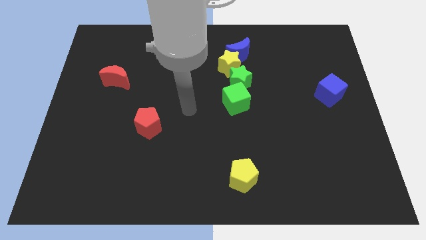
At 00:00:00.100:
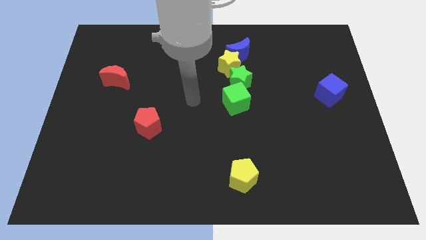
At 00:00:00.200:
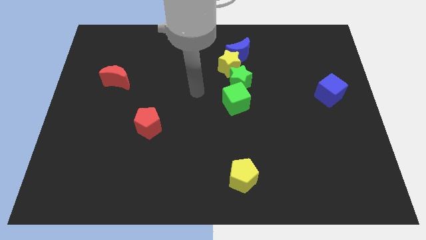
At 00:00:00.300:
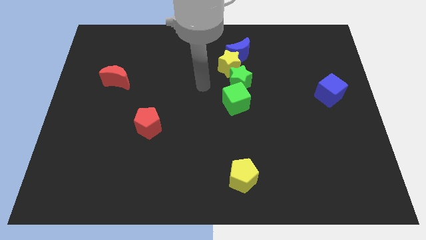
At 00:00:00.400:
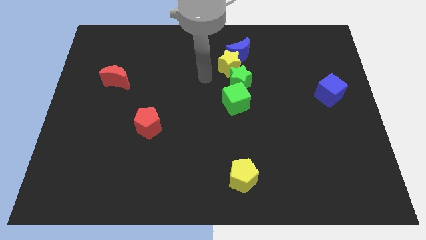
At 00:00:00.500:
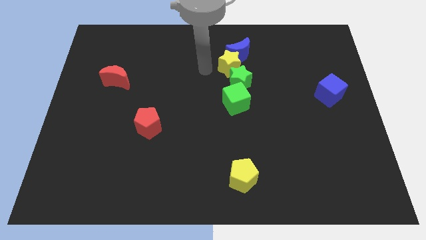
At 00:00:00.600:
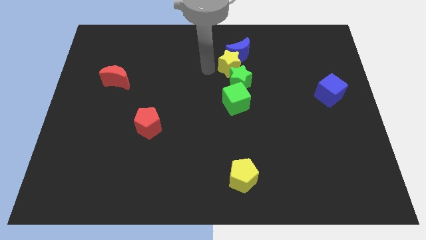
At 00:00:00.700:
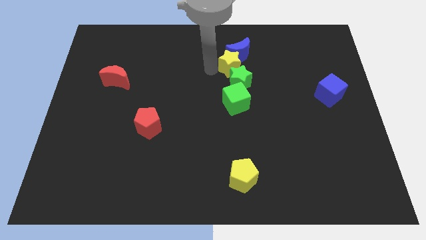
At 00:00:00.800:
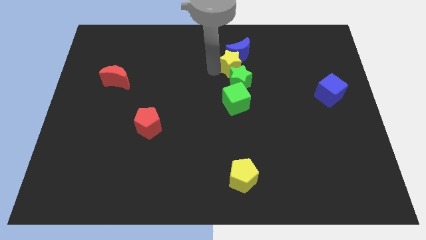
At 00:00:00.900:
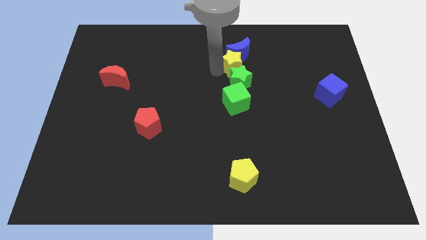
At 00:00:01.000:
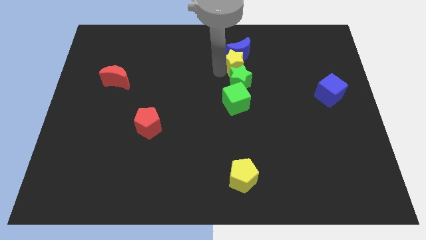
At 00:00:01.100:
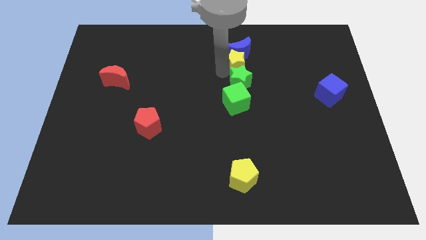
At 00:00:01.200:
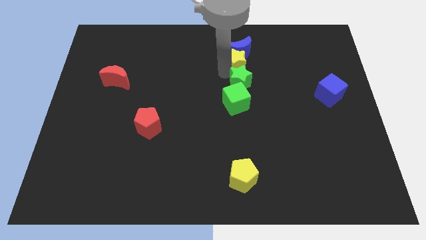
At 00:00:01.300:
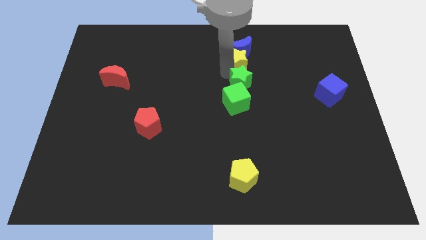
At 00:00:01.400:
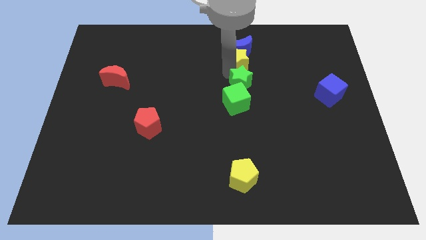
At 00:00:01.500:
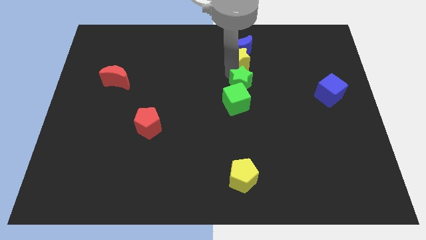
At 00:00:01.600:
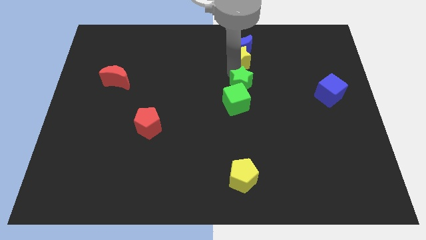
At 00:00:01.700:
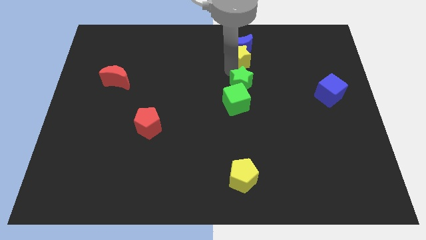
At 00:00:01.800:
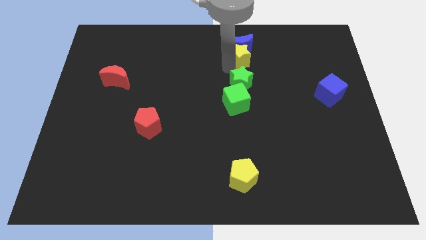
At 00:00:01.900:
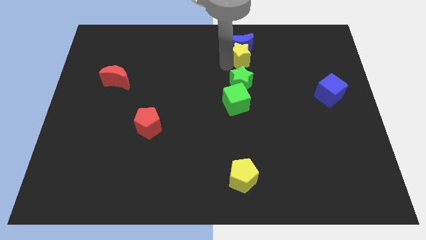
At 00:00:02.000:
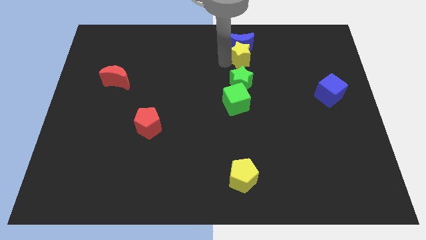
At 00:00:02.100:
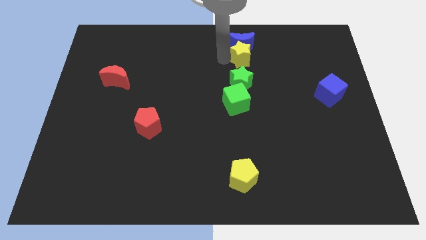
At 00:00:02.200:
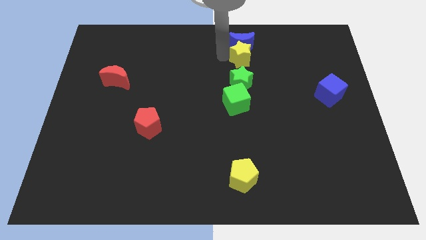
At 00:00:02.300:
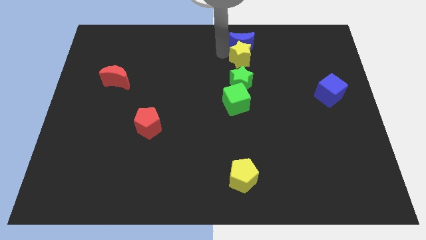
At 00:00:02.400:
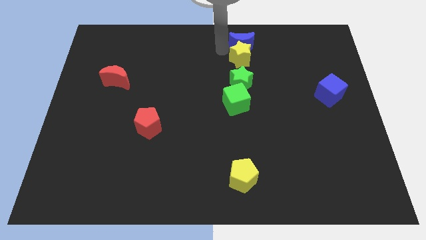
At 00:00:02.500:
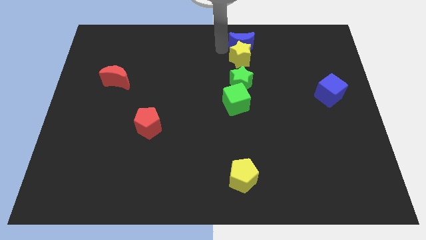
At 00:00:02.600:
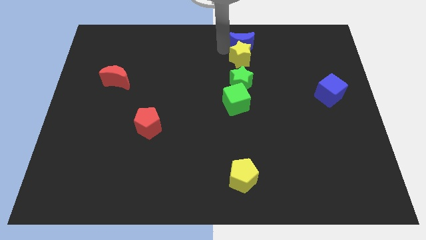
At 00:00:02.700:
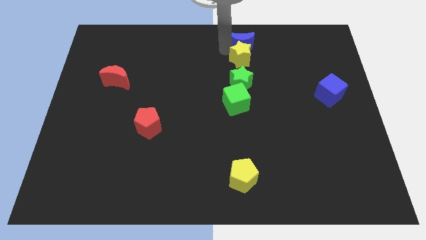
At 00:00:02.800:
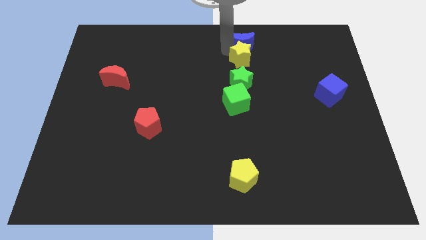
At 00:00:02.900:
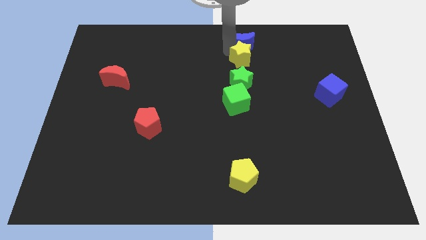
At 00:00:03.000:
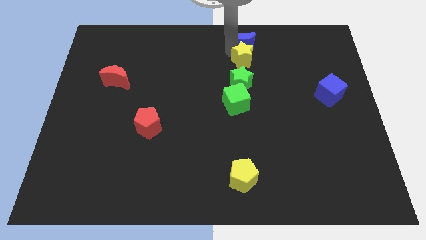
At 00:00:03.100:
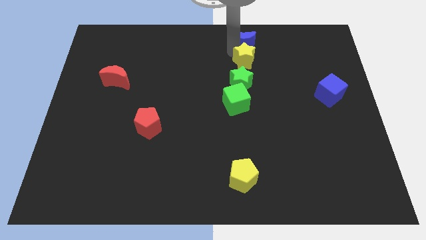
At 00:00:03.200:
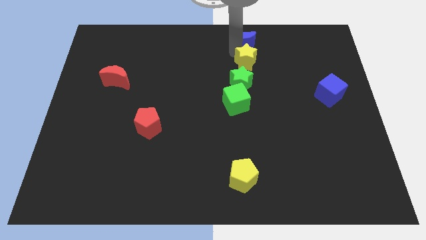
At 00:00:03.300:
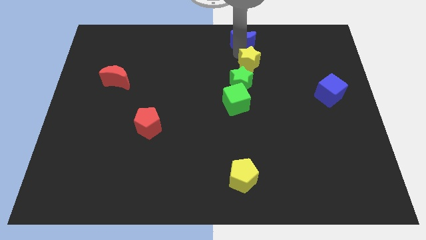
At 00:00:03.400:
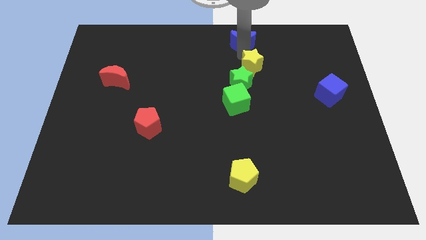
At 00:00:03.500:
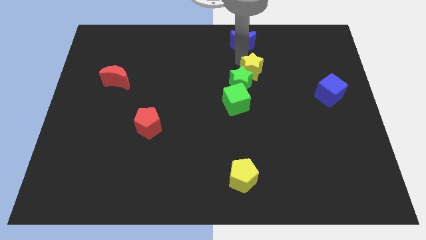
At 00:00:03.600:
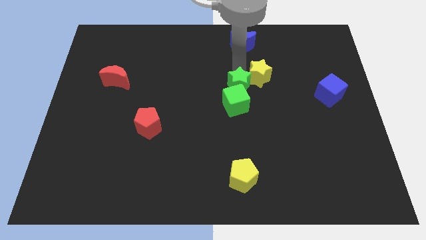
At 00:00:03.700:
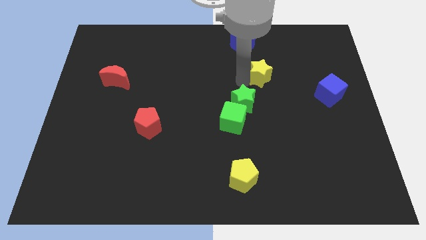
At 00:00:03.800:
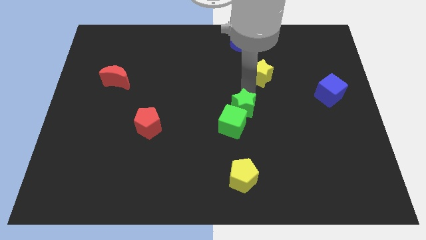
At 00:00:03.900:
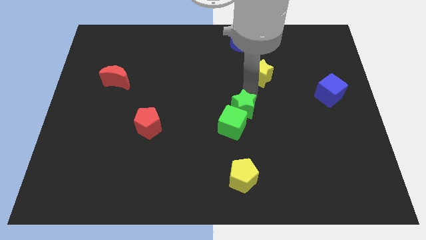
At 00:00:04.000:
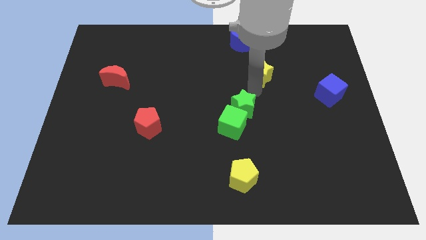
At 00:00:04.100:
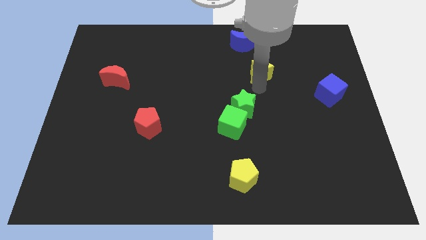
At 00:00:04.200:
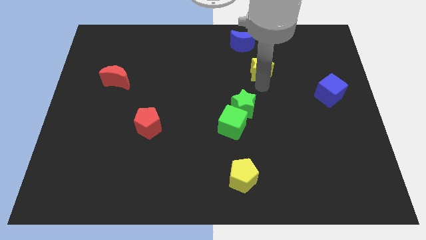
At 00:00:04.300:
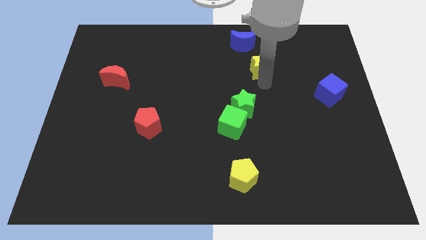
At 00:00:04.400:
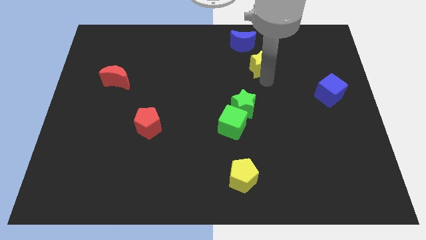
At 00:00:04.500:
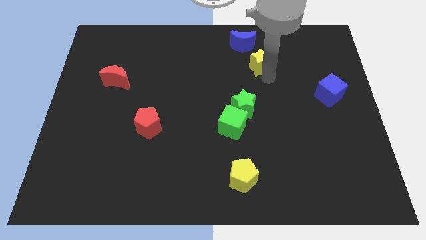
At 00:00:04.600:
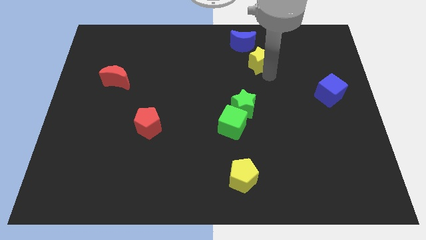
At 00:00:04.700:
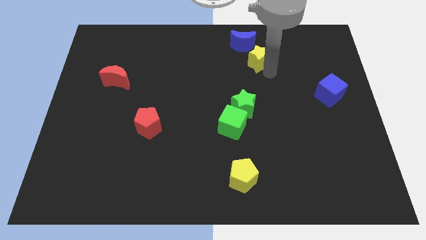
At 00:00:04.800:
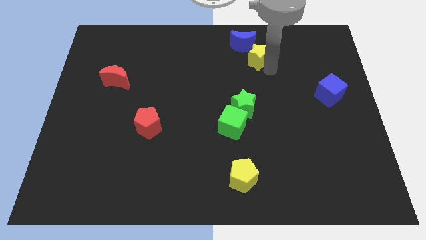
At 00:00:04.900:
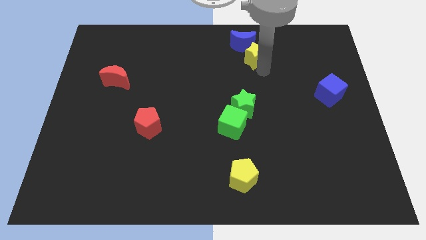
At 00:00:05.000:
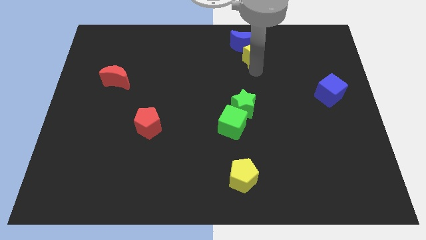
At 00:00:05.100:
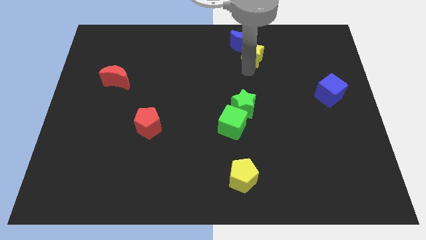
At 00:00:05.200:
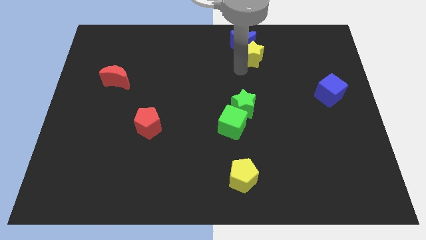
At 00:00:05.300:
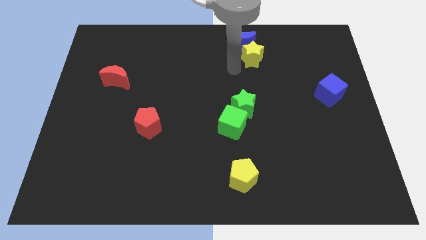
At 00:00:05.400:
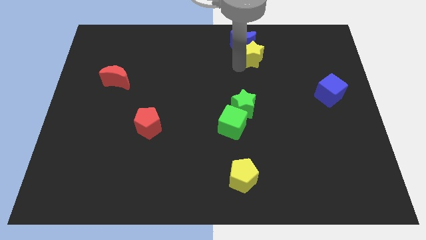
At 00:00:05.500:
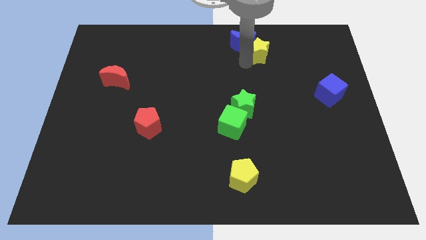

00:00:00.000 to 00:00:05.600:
push the yellow star right of the blue moon
